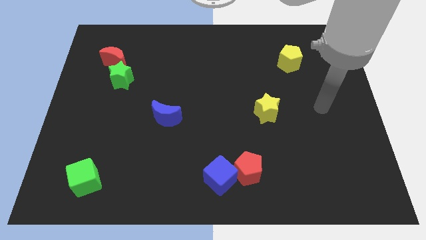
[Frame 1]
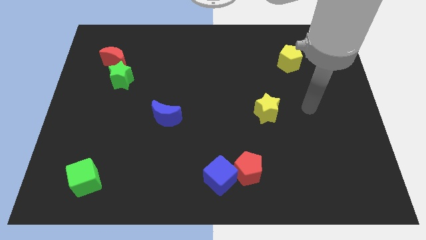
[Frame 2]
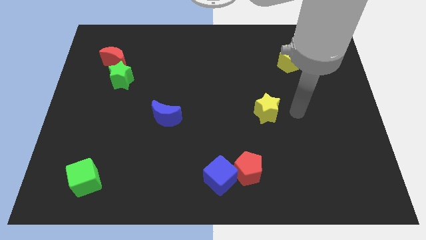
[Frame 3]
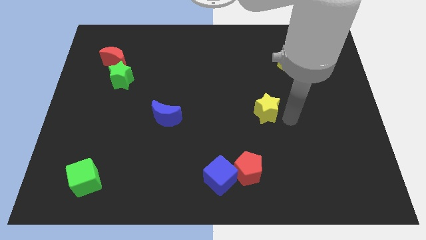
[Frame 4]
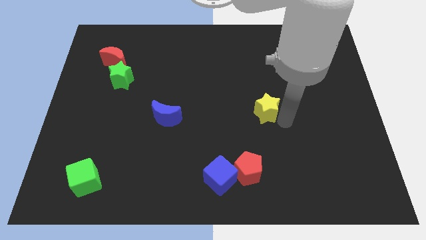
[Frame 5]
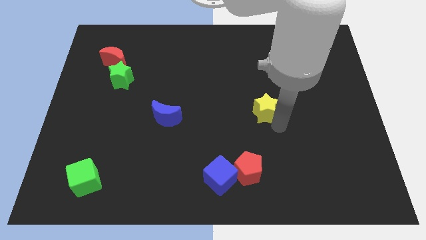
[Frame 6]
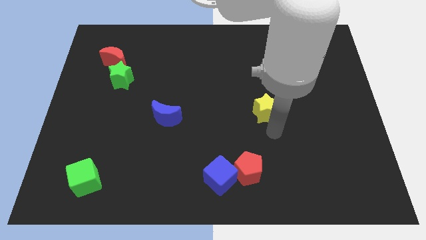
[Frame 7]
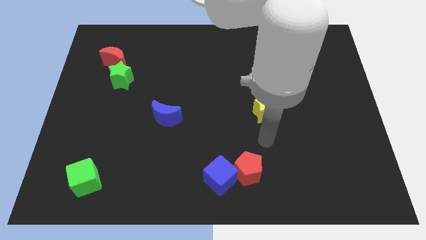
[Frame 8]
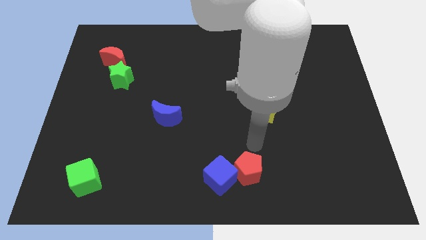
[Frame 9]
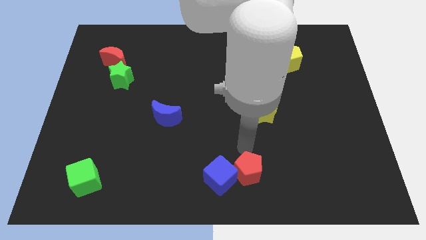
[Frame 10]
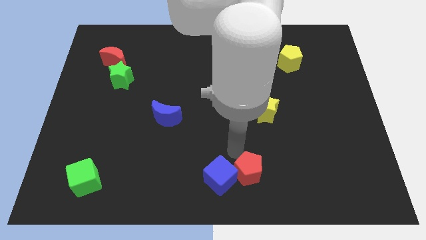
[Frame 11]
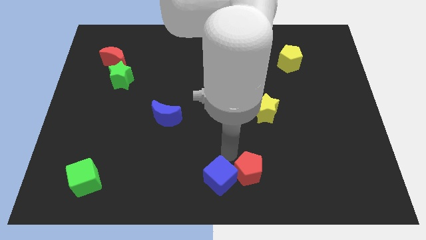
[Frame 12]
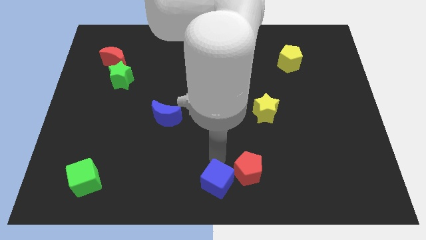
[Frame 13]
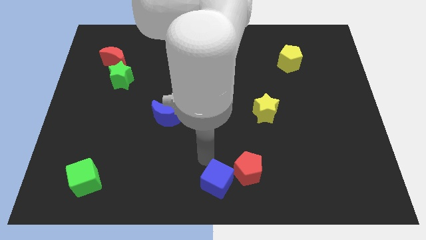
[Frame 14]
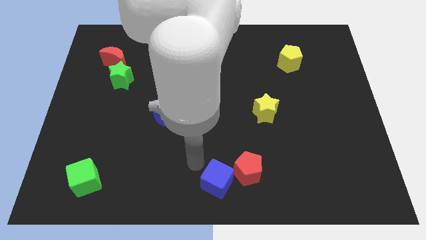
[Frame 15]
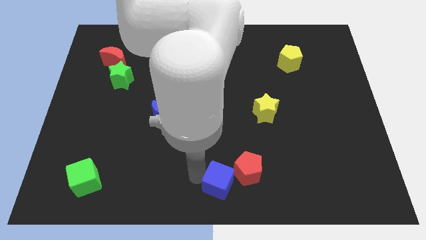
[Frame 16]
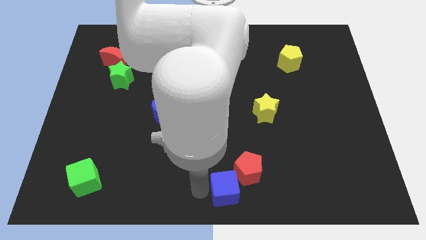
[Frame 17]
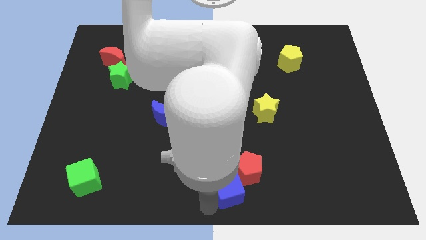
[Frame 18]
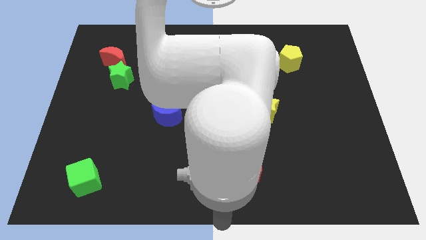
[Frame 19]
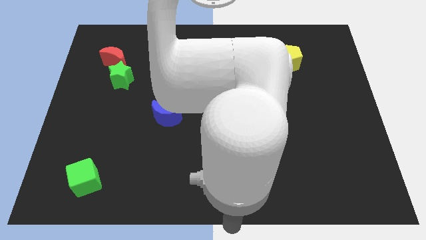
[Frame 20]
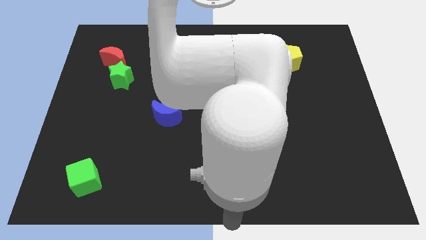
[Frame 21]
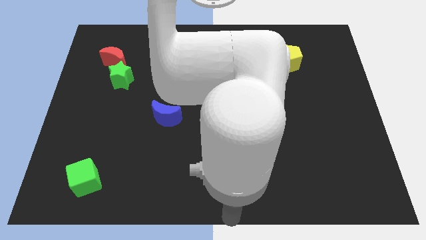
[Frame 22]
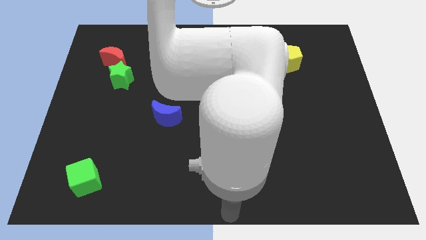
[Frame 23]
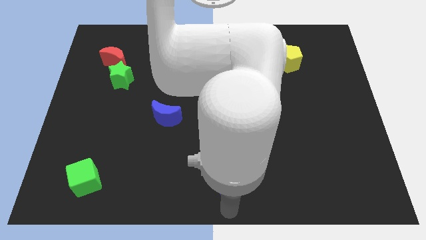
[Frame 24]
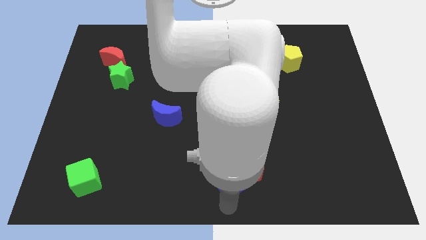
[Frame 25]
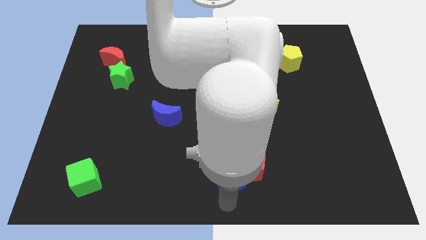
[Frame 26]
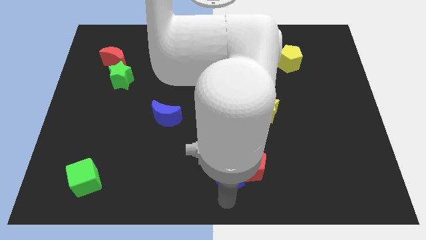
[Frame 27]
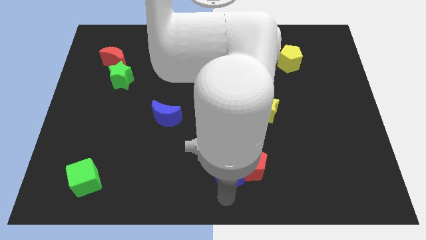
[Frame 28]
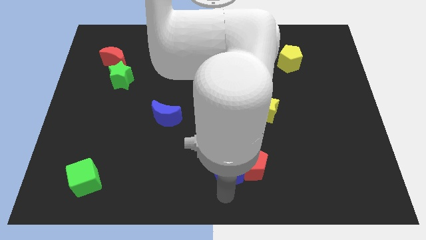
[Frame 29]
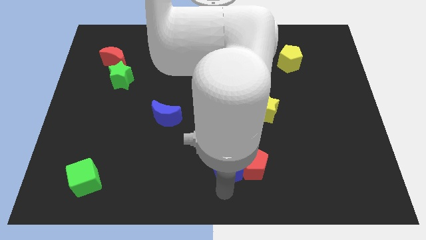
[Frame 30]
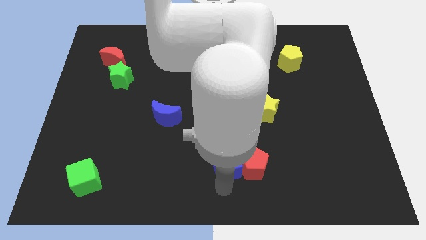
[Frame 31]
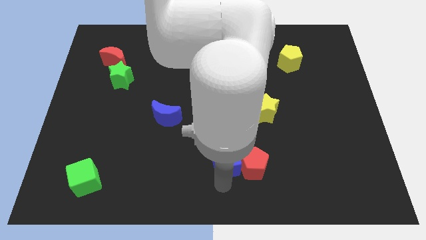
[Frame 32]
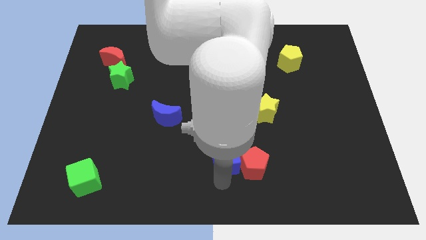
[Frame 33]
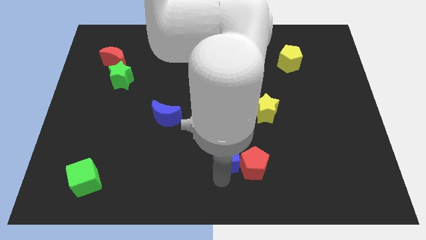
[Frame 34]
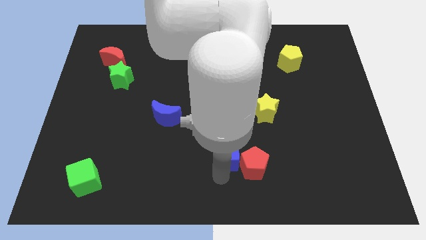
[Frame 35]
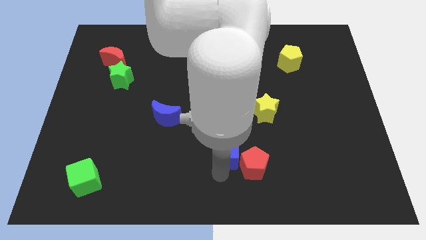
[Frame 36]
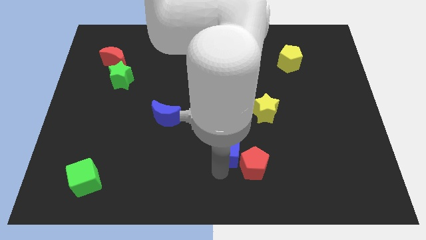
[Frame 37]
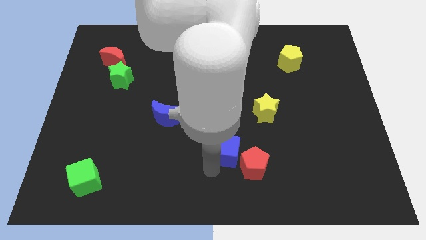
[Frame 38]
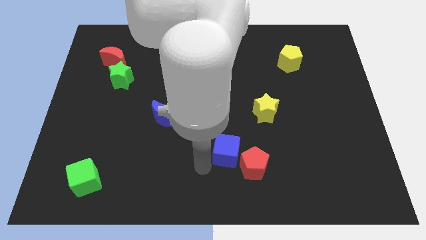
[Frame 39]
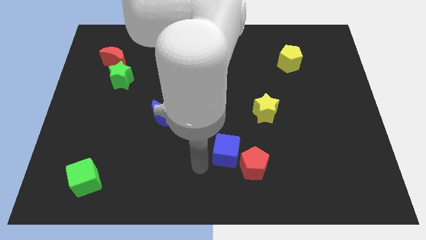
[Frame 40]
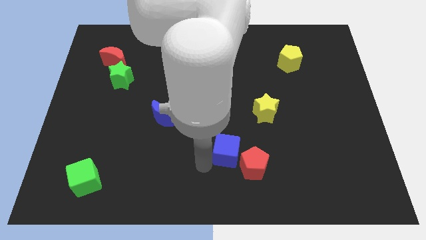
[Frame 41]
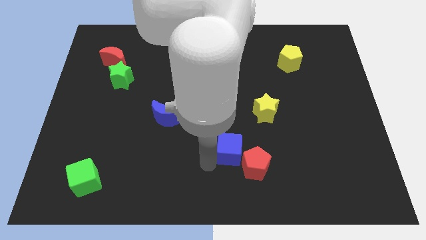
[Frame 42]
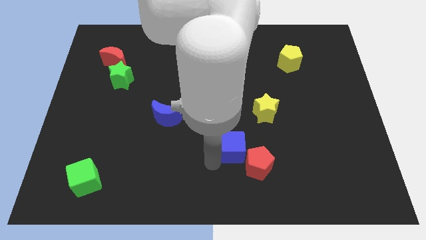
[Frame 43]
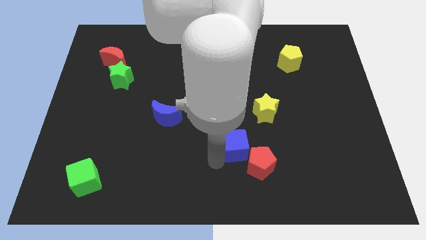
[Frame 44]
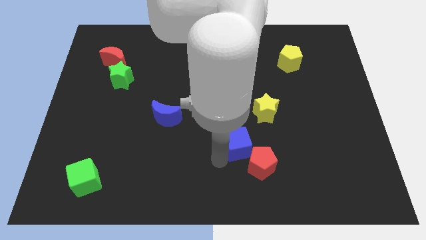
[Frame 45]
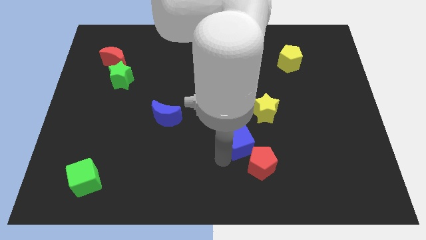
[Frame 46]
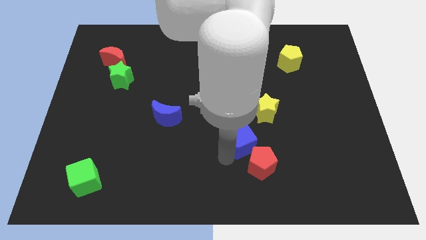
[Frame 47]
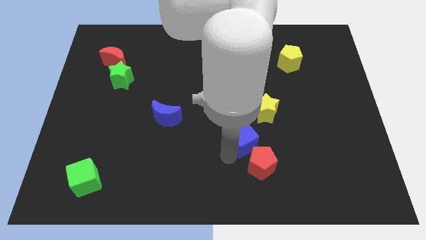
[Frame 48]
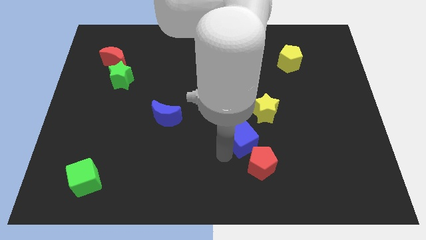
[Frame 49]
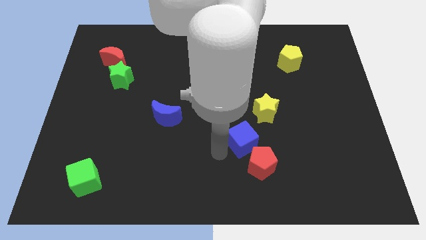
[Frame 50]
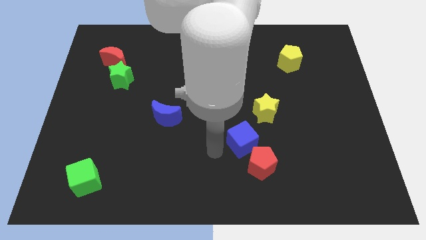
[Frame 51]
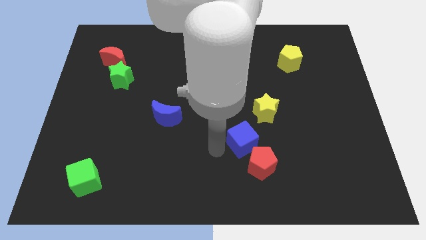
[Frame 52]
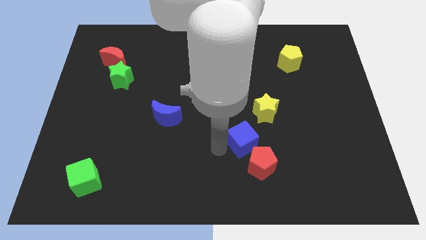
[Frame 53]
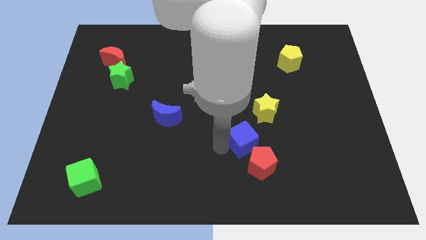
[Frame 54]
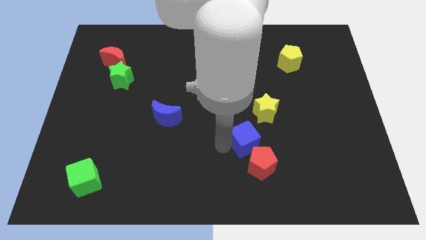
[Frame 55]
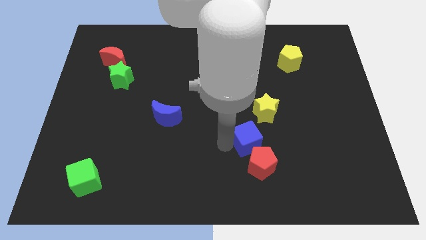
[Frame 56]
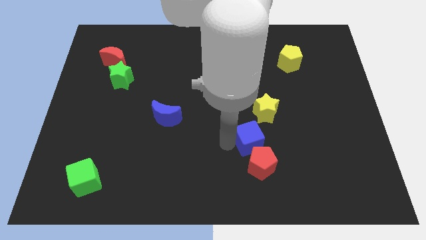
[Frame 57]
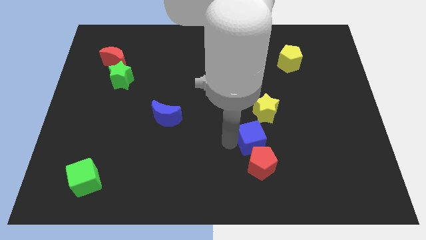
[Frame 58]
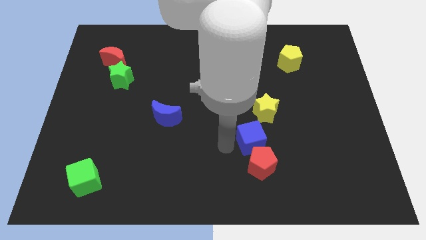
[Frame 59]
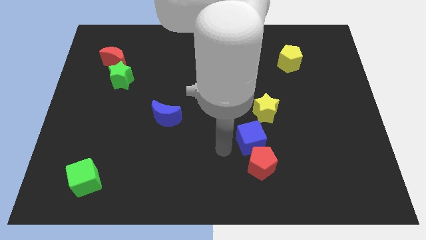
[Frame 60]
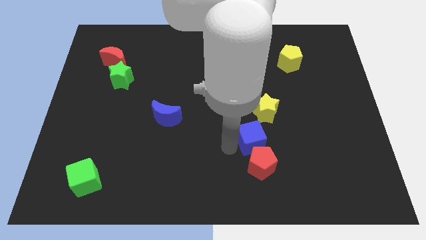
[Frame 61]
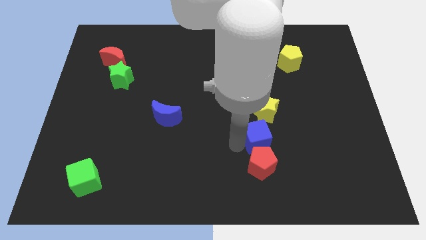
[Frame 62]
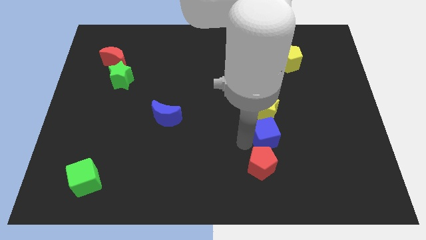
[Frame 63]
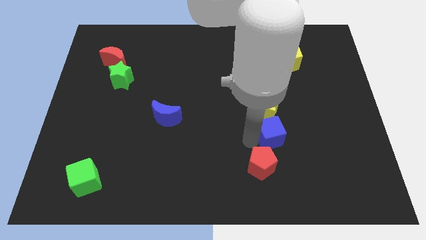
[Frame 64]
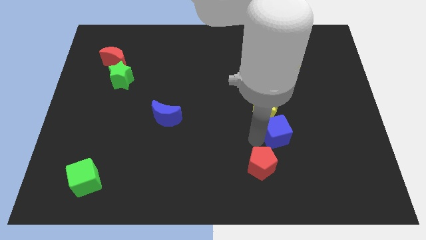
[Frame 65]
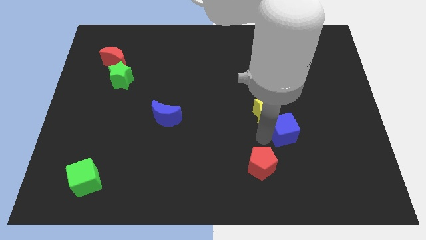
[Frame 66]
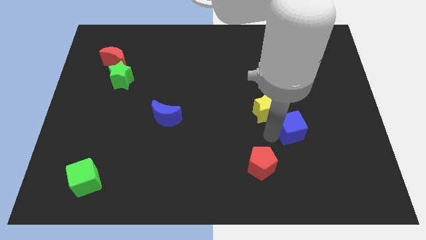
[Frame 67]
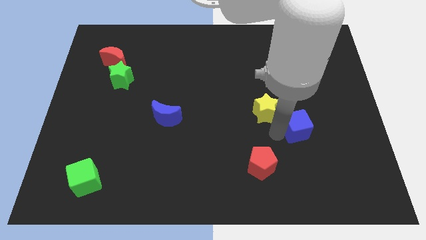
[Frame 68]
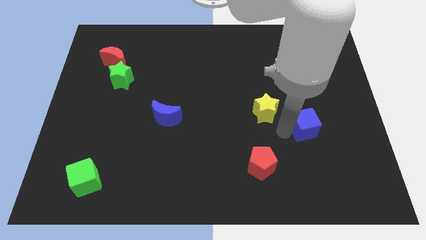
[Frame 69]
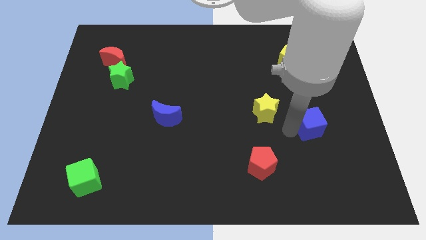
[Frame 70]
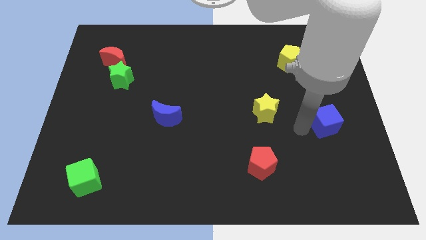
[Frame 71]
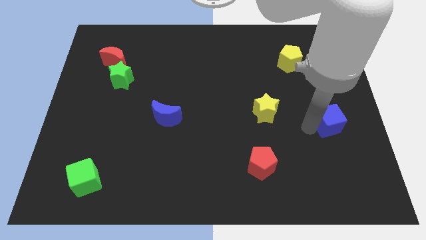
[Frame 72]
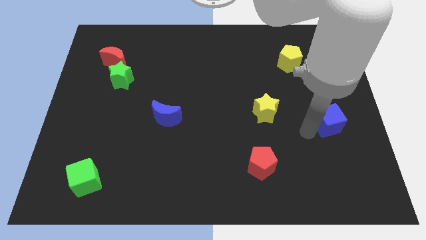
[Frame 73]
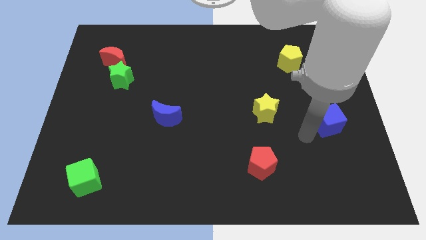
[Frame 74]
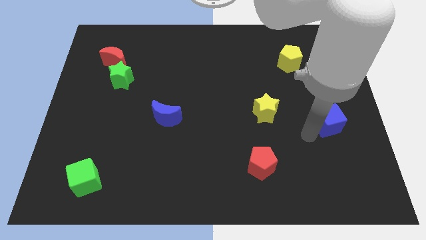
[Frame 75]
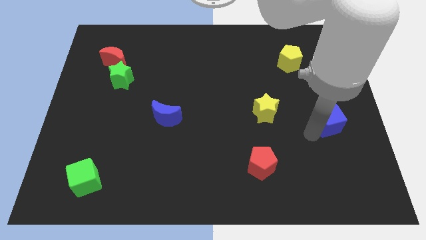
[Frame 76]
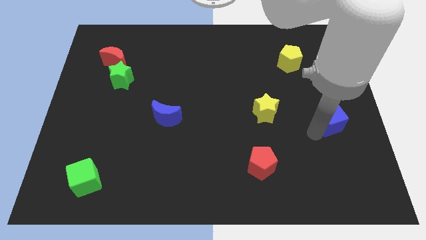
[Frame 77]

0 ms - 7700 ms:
push the blue cube to the right side
